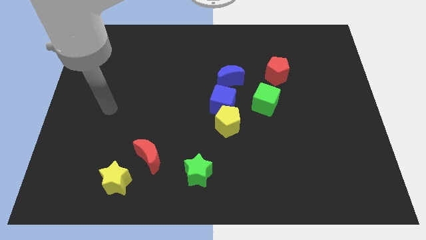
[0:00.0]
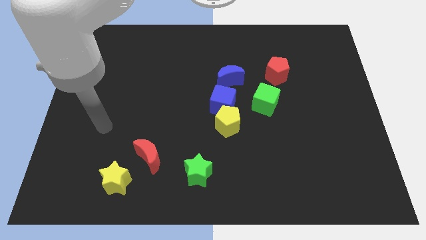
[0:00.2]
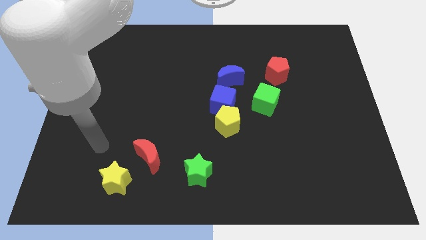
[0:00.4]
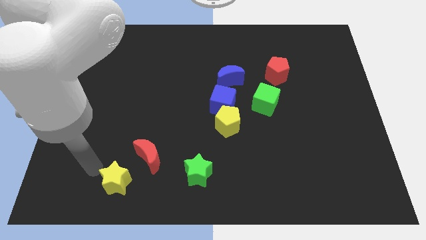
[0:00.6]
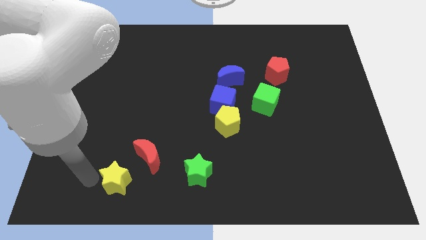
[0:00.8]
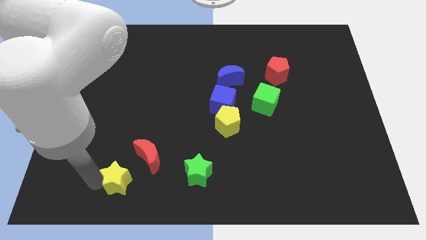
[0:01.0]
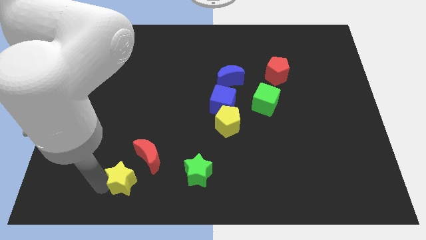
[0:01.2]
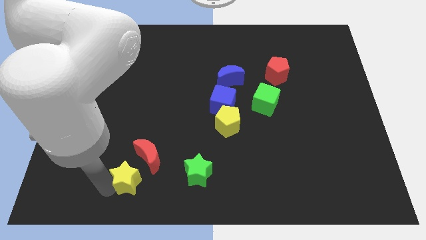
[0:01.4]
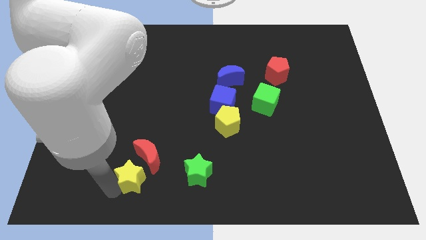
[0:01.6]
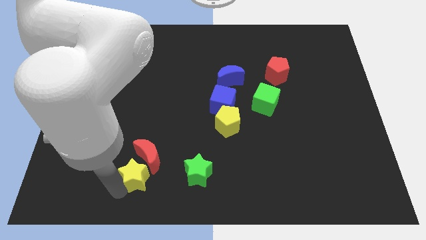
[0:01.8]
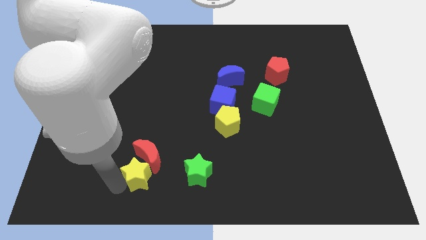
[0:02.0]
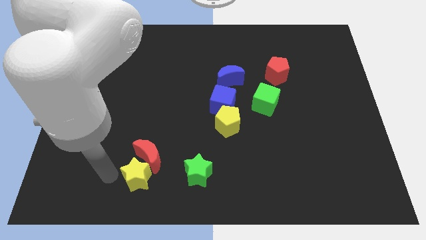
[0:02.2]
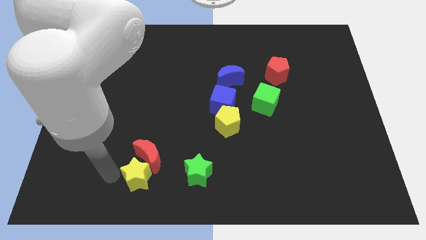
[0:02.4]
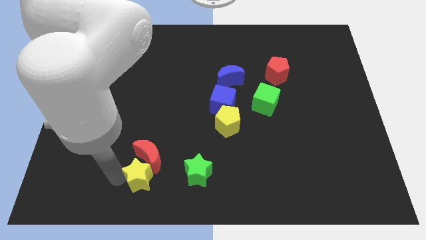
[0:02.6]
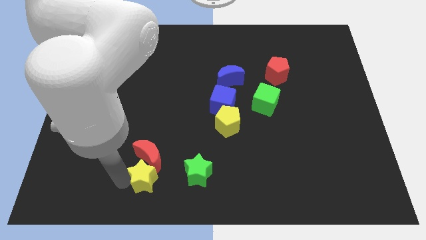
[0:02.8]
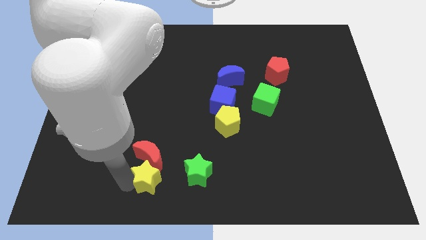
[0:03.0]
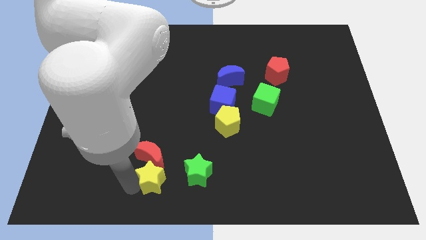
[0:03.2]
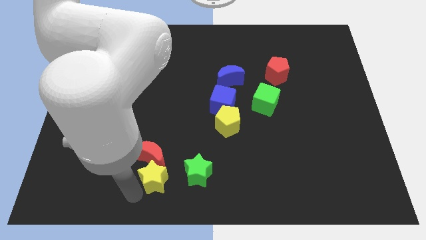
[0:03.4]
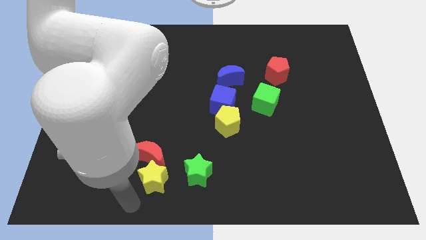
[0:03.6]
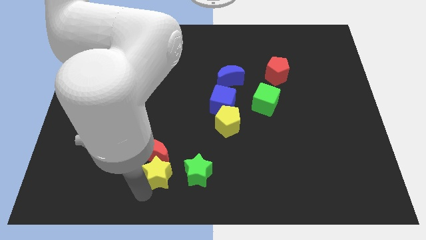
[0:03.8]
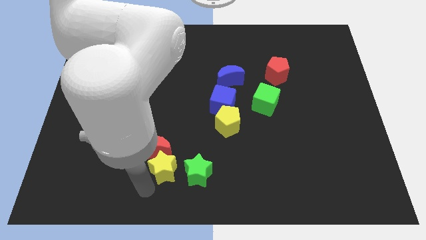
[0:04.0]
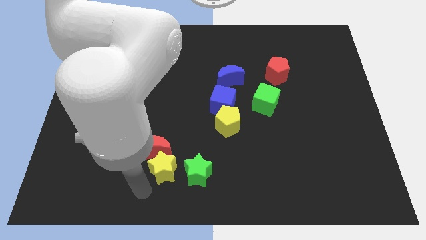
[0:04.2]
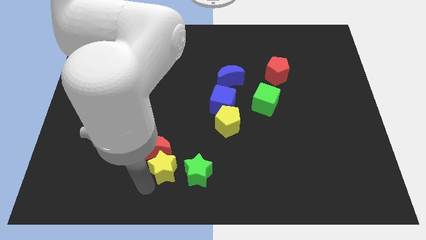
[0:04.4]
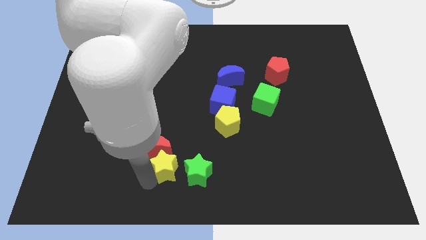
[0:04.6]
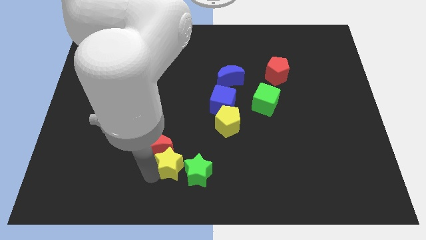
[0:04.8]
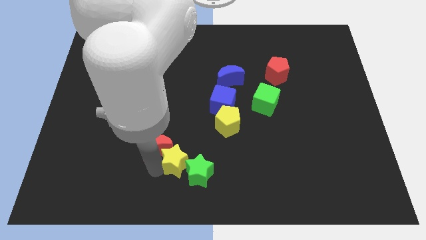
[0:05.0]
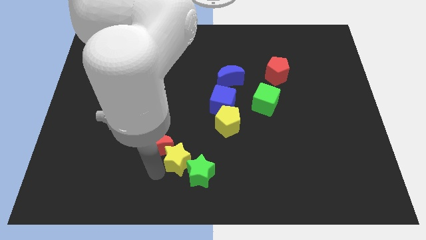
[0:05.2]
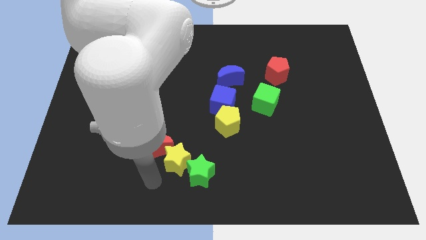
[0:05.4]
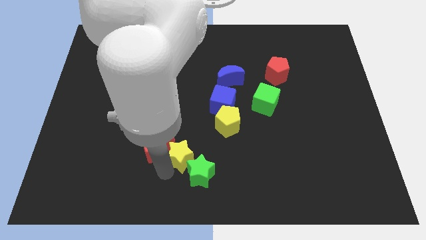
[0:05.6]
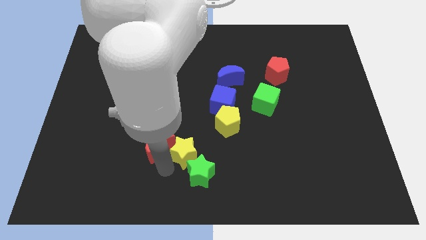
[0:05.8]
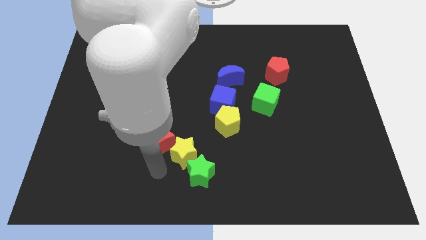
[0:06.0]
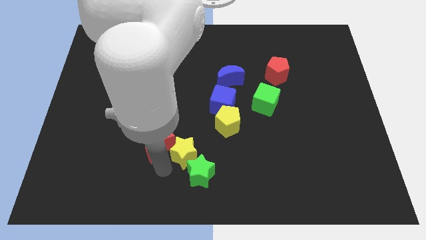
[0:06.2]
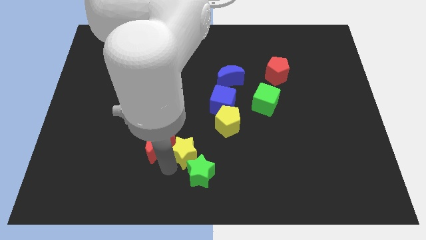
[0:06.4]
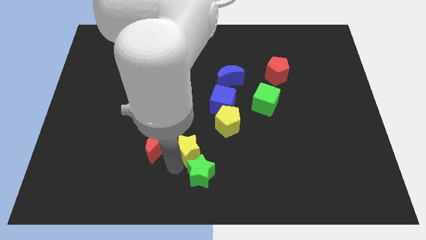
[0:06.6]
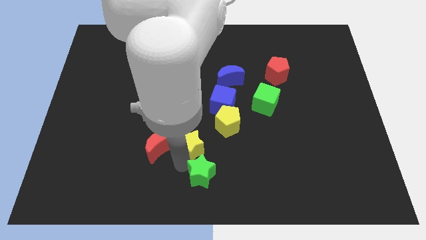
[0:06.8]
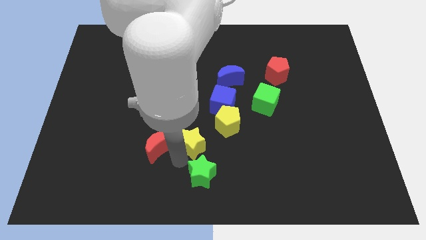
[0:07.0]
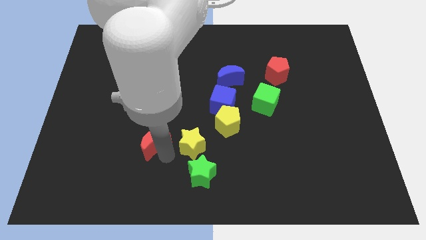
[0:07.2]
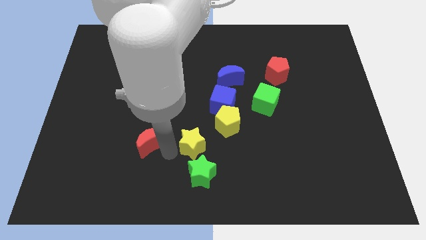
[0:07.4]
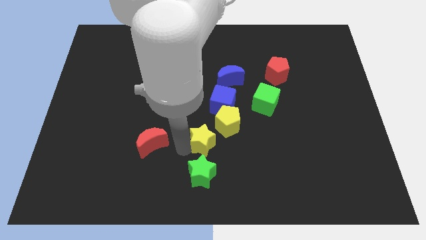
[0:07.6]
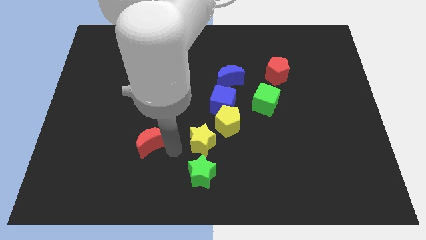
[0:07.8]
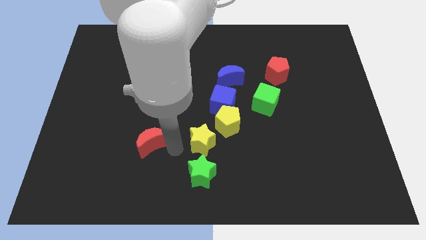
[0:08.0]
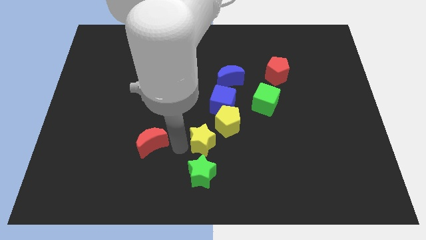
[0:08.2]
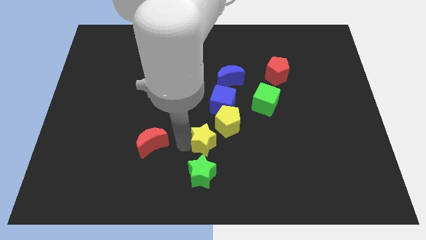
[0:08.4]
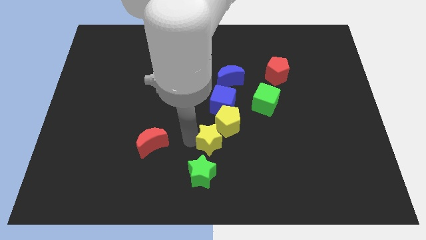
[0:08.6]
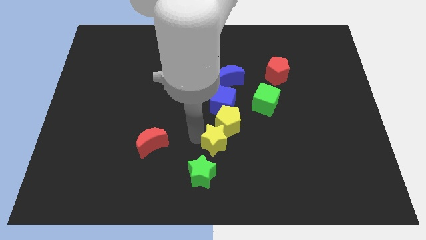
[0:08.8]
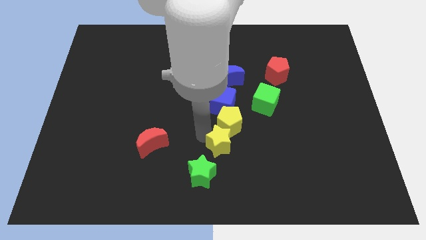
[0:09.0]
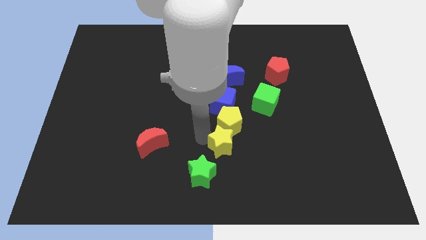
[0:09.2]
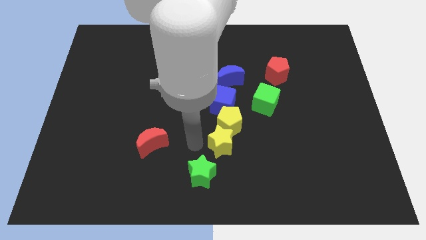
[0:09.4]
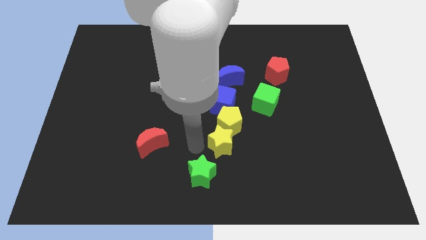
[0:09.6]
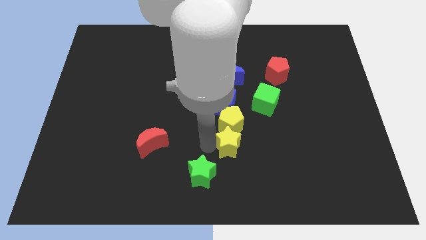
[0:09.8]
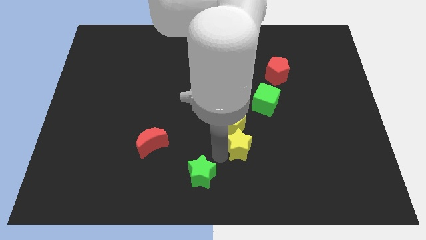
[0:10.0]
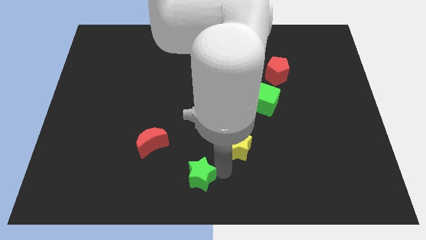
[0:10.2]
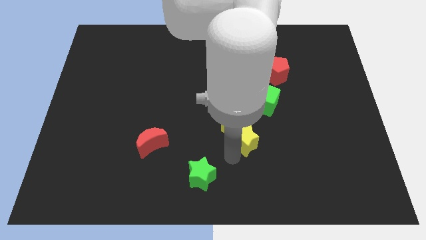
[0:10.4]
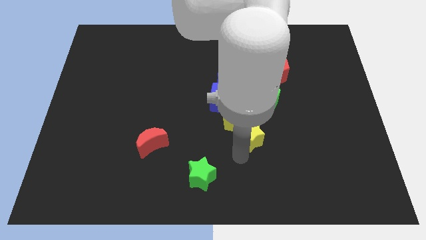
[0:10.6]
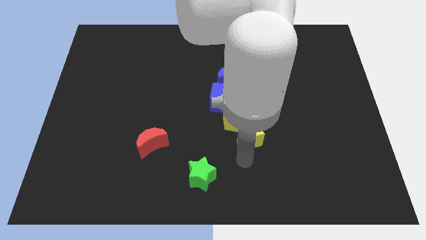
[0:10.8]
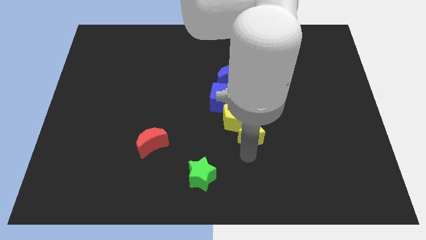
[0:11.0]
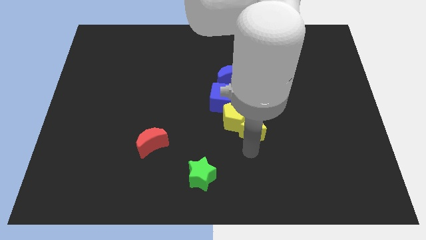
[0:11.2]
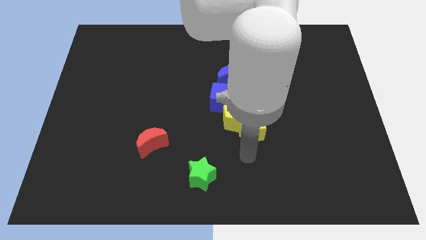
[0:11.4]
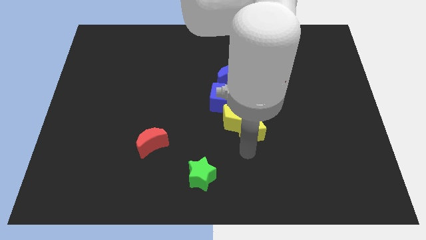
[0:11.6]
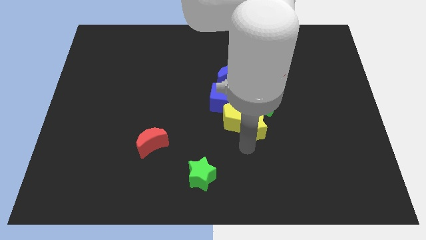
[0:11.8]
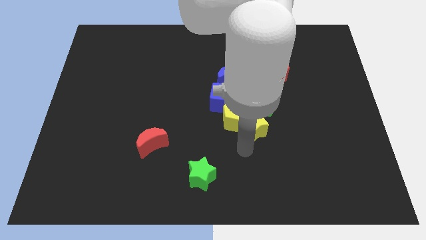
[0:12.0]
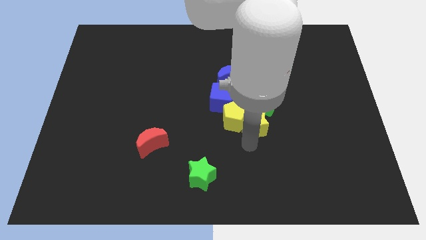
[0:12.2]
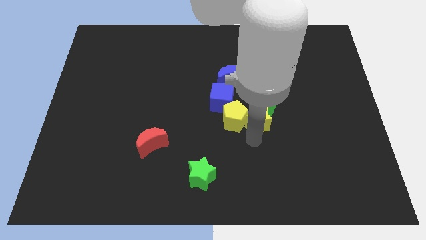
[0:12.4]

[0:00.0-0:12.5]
push the yellow star towards the green cube

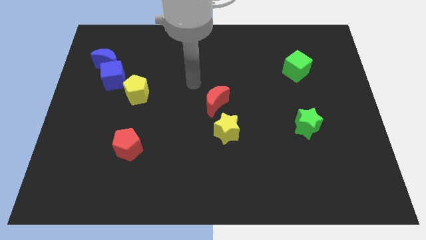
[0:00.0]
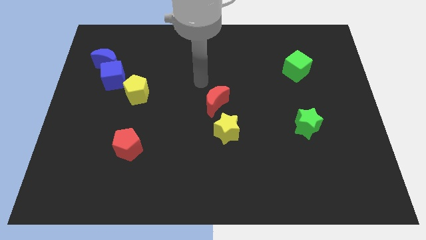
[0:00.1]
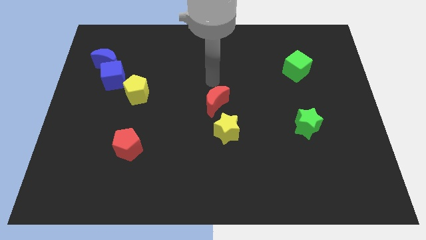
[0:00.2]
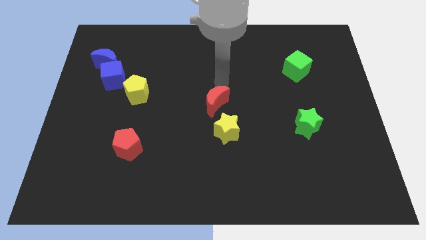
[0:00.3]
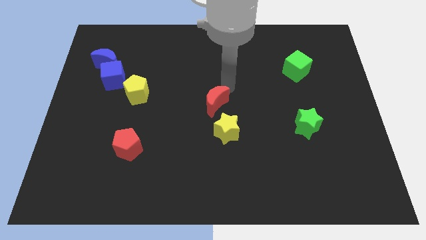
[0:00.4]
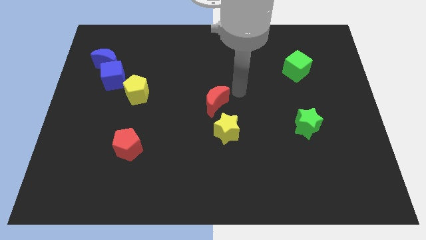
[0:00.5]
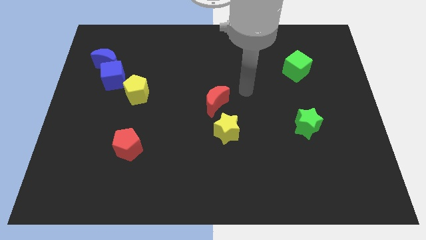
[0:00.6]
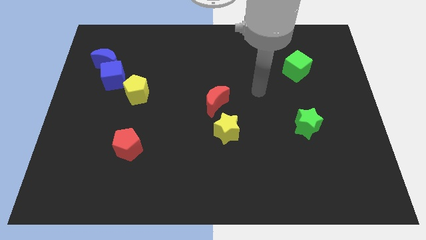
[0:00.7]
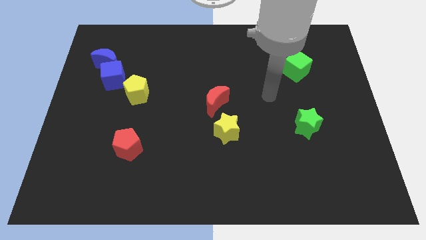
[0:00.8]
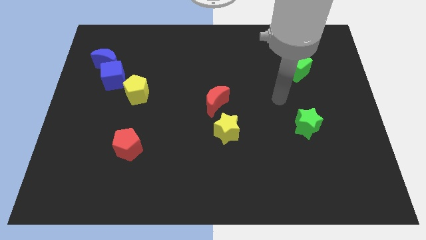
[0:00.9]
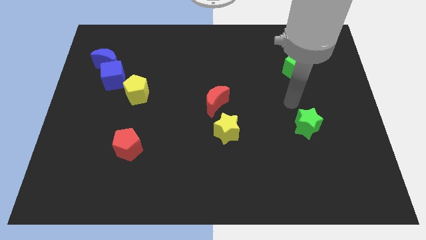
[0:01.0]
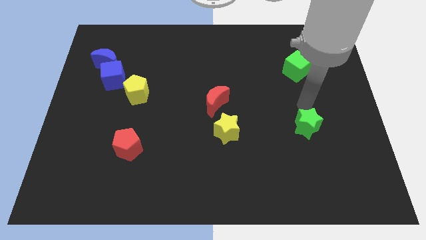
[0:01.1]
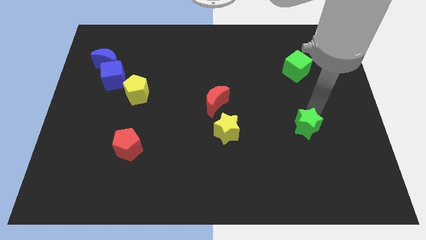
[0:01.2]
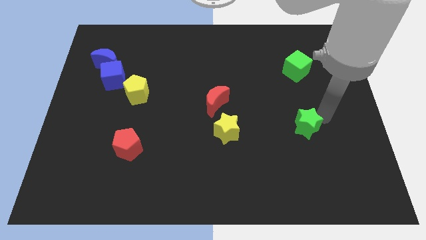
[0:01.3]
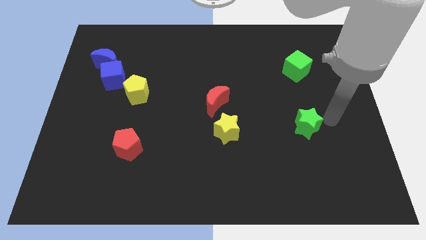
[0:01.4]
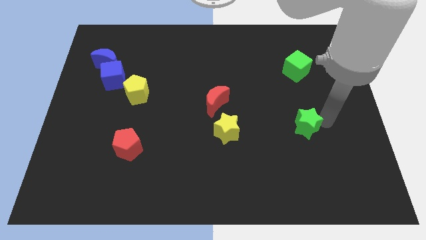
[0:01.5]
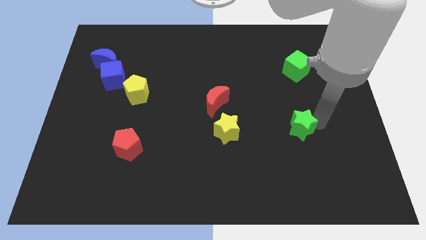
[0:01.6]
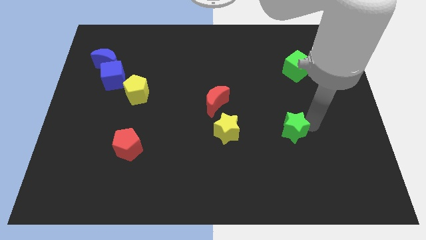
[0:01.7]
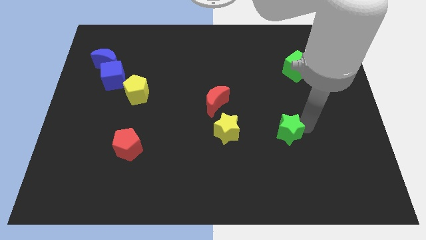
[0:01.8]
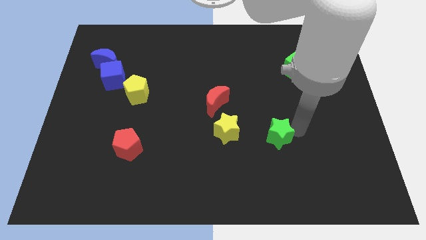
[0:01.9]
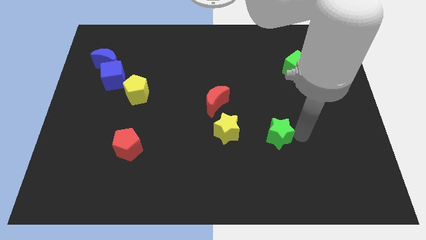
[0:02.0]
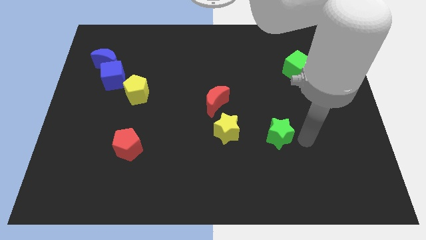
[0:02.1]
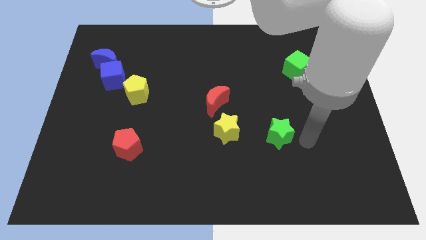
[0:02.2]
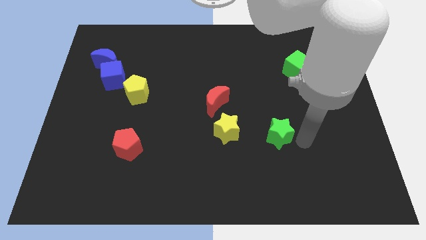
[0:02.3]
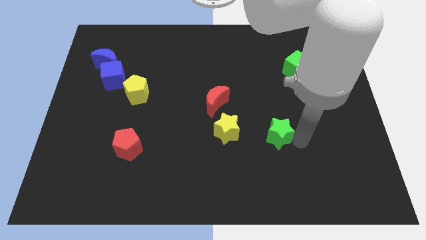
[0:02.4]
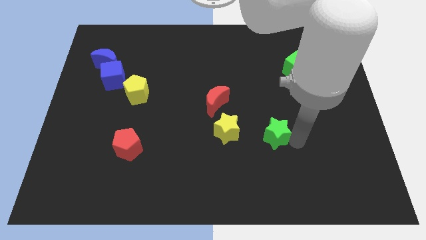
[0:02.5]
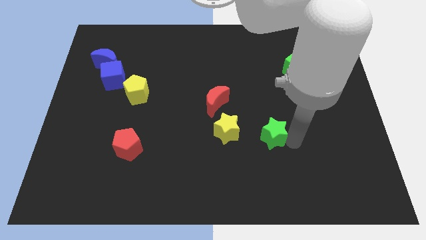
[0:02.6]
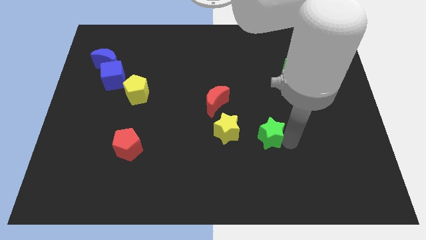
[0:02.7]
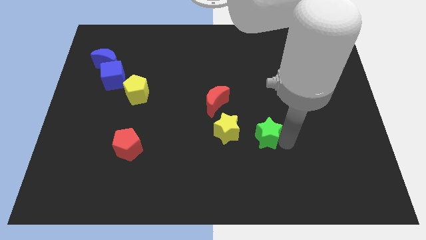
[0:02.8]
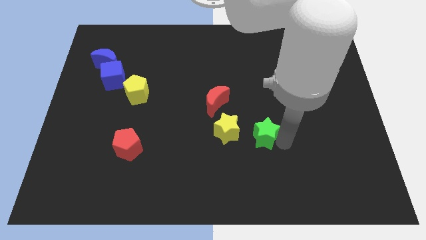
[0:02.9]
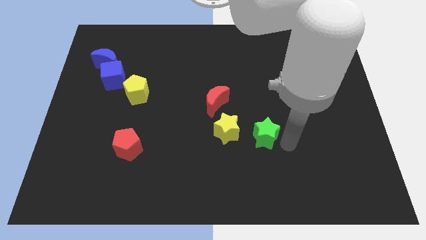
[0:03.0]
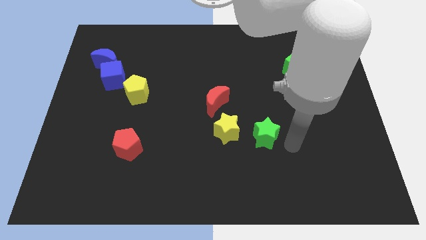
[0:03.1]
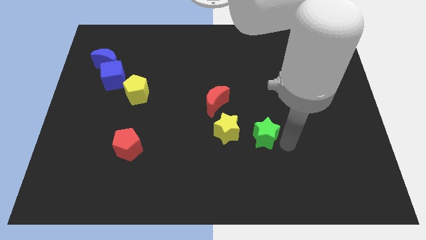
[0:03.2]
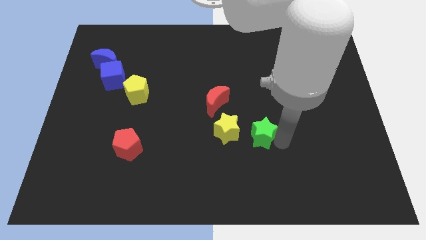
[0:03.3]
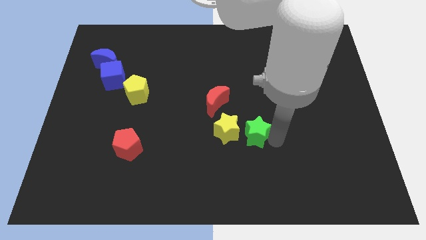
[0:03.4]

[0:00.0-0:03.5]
push the green star towards the yellow star
